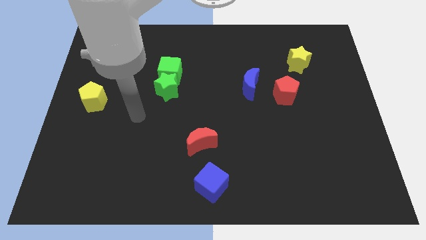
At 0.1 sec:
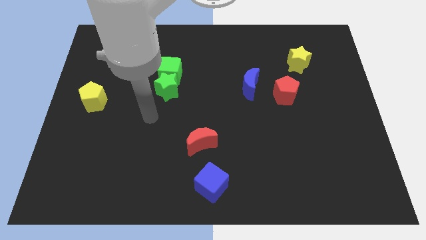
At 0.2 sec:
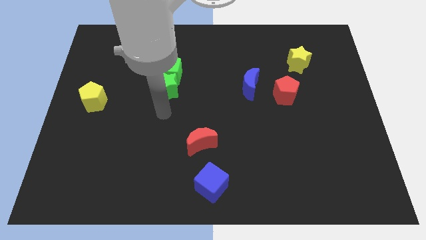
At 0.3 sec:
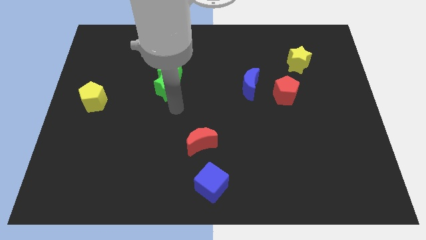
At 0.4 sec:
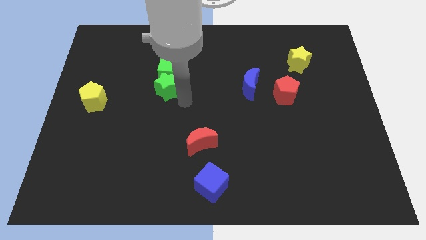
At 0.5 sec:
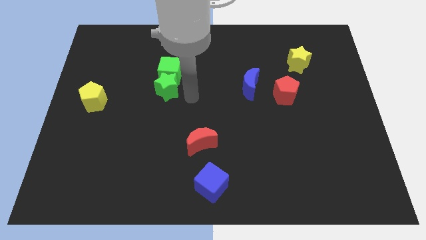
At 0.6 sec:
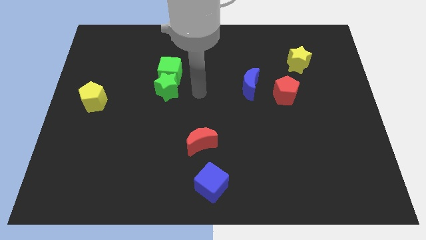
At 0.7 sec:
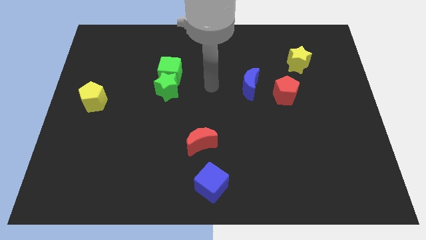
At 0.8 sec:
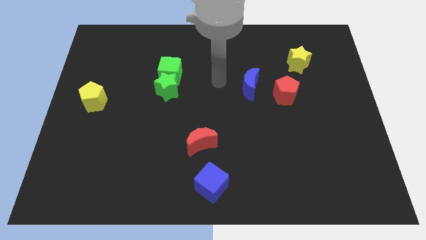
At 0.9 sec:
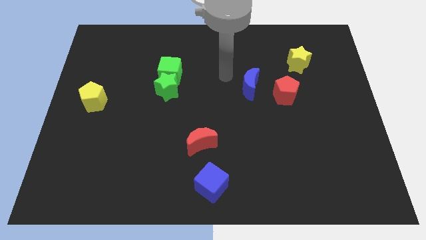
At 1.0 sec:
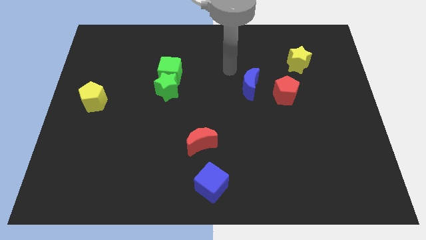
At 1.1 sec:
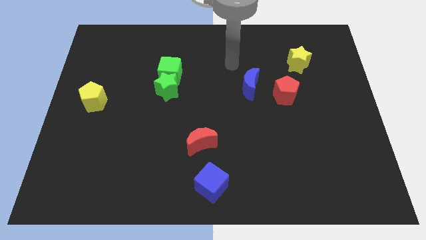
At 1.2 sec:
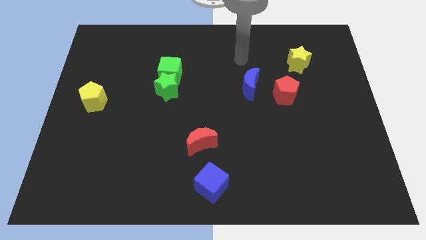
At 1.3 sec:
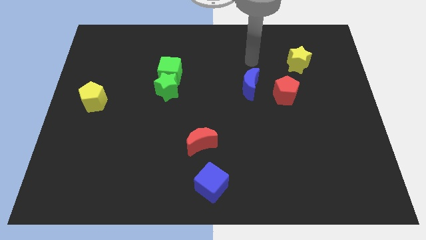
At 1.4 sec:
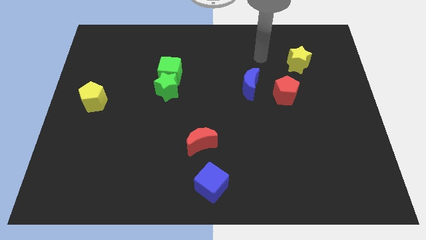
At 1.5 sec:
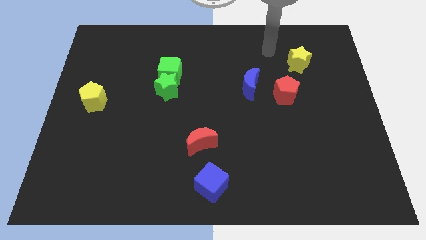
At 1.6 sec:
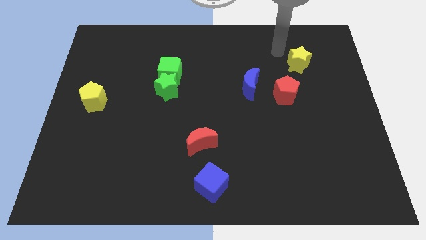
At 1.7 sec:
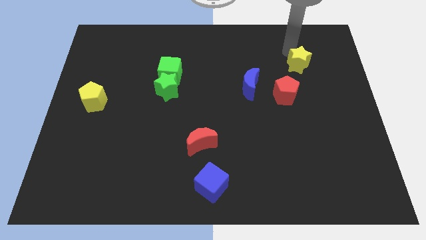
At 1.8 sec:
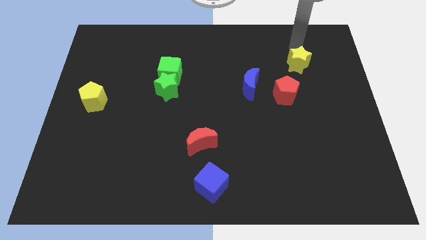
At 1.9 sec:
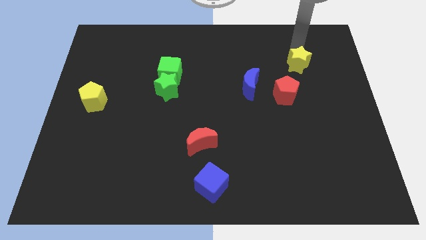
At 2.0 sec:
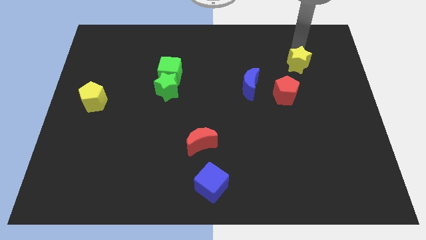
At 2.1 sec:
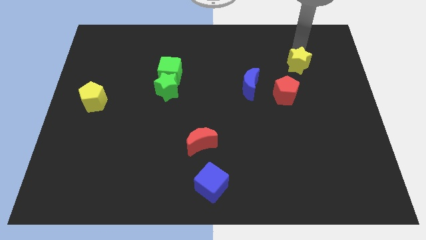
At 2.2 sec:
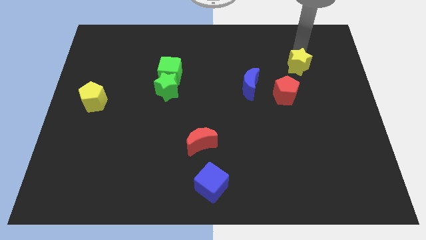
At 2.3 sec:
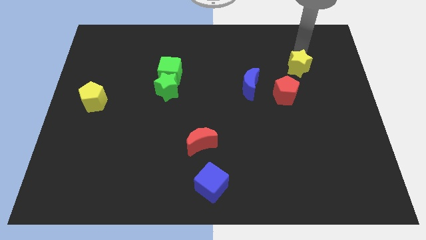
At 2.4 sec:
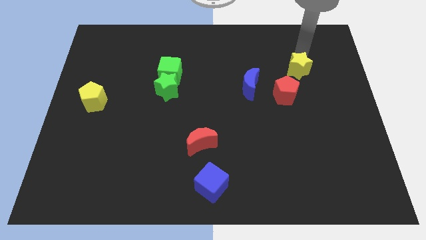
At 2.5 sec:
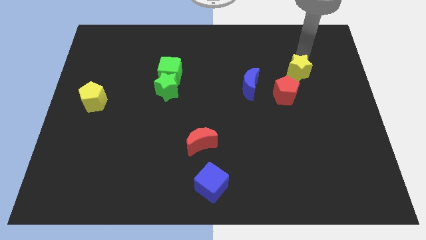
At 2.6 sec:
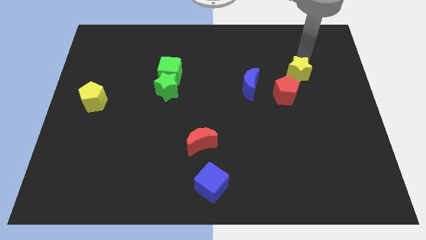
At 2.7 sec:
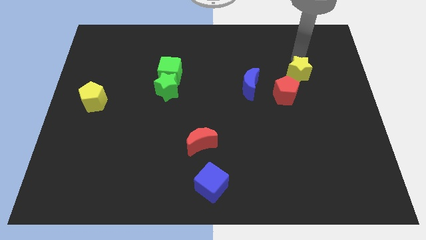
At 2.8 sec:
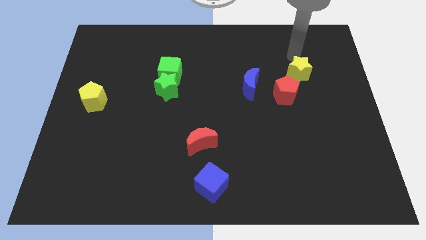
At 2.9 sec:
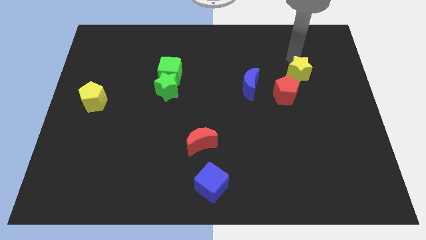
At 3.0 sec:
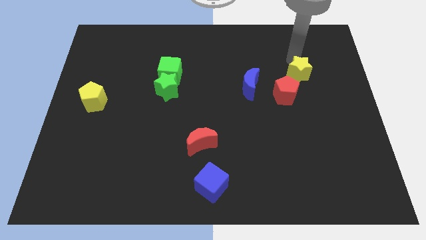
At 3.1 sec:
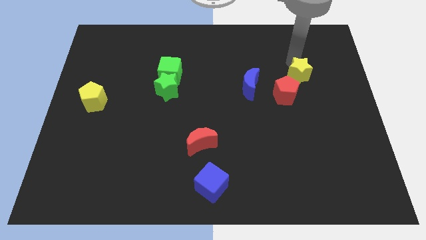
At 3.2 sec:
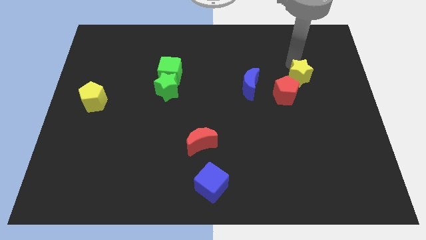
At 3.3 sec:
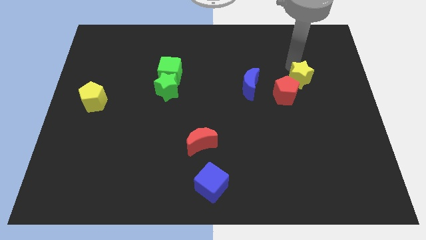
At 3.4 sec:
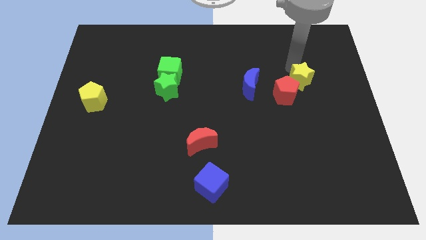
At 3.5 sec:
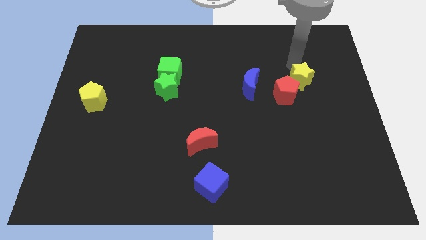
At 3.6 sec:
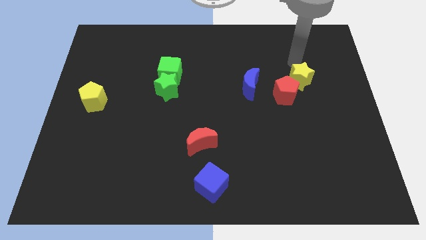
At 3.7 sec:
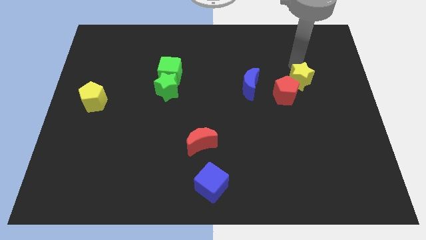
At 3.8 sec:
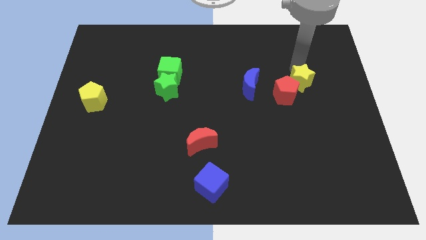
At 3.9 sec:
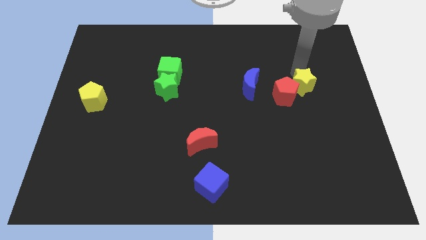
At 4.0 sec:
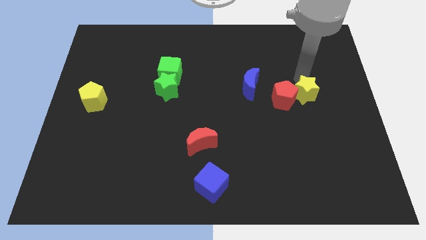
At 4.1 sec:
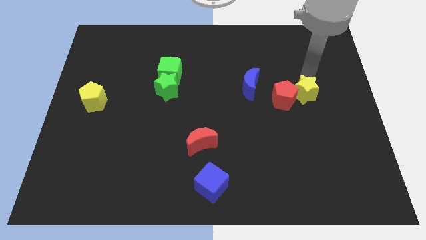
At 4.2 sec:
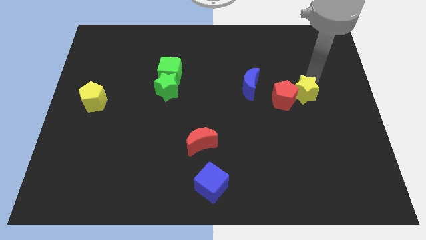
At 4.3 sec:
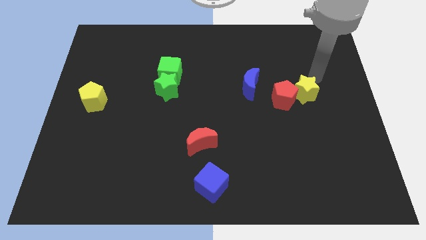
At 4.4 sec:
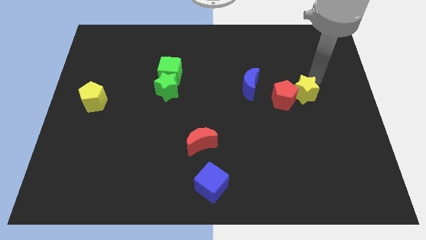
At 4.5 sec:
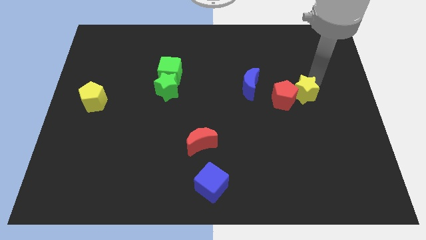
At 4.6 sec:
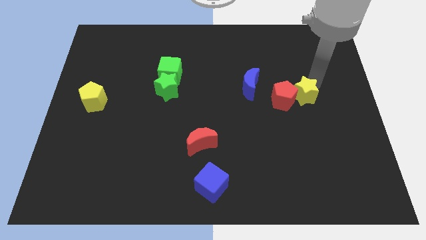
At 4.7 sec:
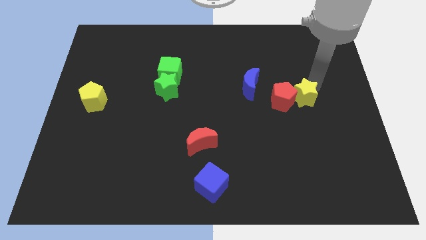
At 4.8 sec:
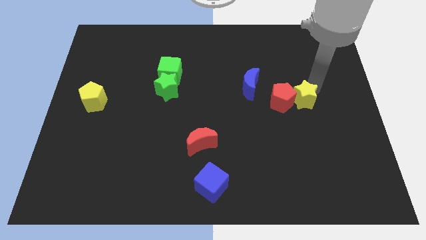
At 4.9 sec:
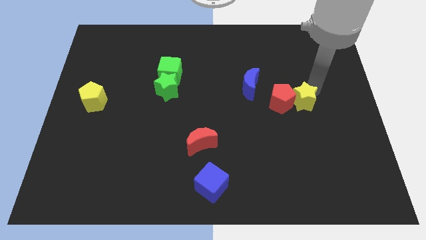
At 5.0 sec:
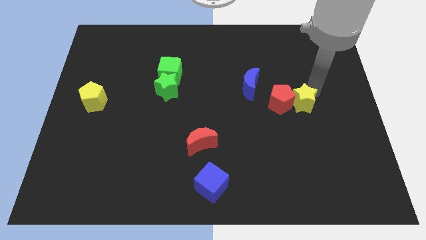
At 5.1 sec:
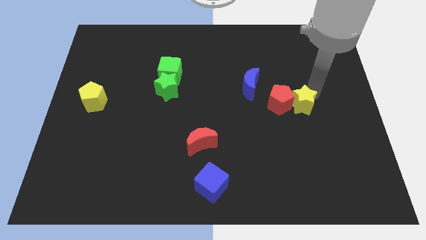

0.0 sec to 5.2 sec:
push the yellow star down and to the left diagonally slightly

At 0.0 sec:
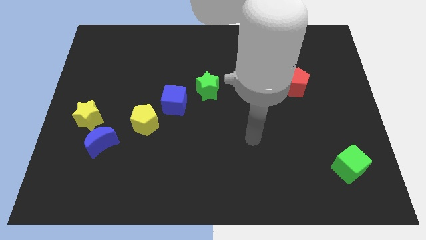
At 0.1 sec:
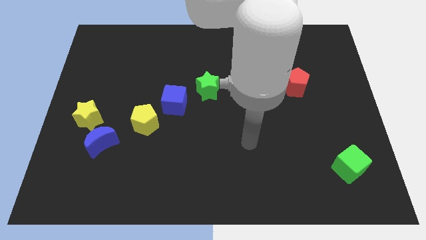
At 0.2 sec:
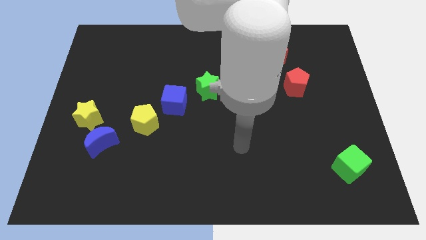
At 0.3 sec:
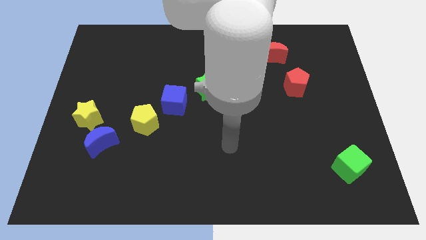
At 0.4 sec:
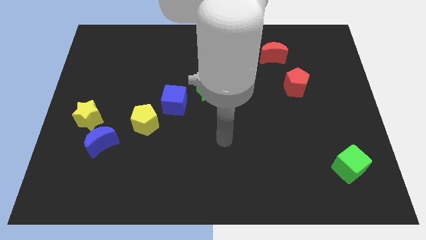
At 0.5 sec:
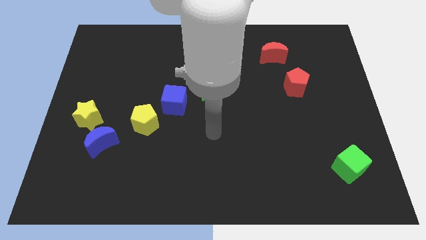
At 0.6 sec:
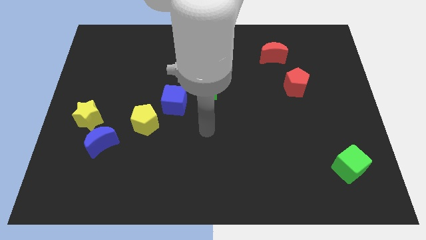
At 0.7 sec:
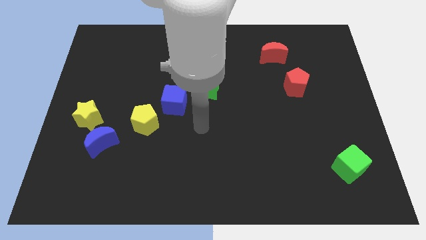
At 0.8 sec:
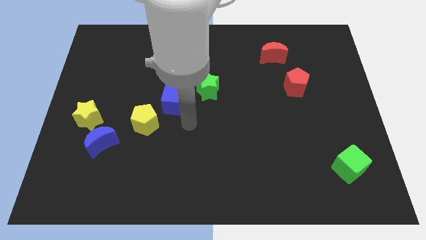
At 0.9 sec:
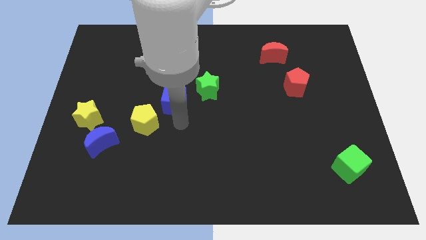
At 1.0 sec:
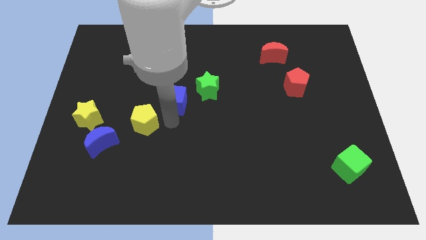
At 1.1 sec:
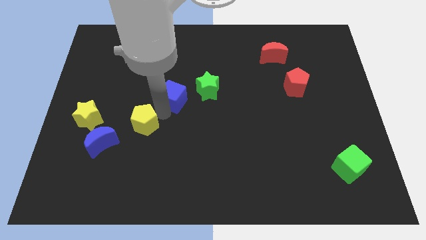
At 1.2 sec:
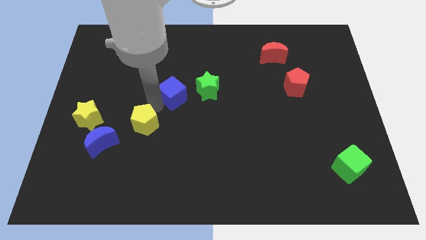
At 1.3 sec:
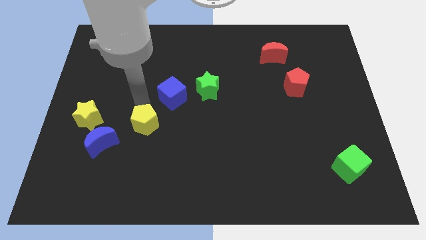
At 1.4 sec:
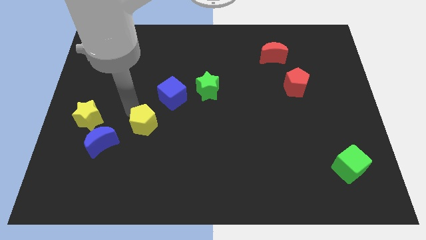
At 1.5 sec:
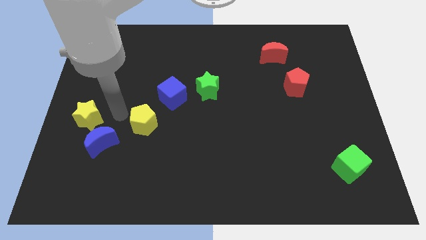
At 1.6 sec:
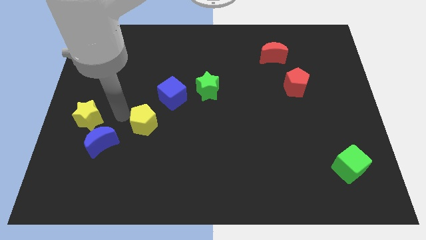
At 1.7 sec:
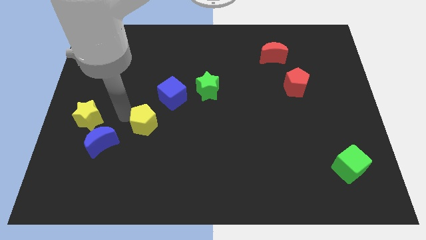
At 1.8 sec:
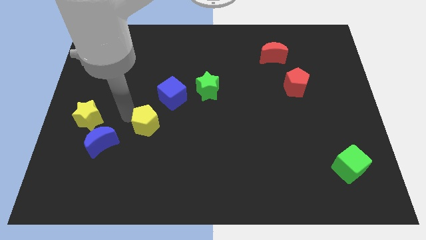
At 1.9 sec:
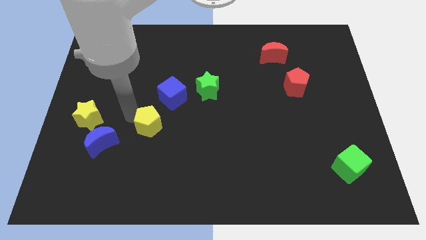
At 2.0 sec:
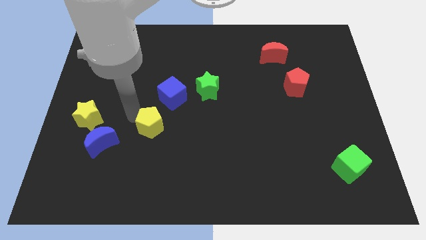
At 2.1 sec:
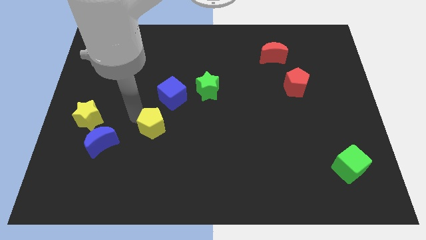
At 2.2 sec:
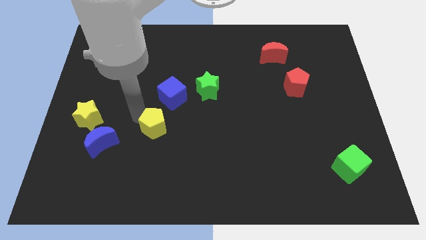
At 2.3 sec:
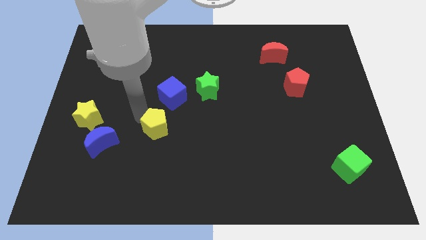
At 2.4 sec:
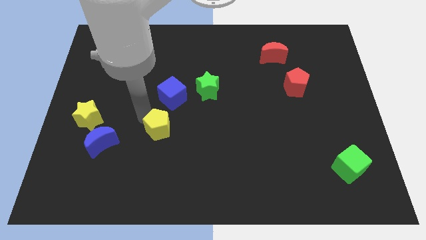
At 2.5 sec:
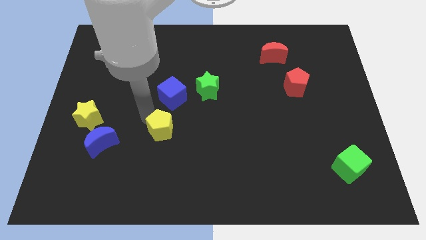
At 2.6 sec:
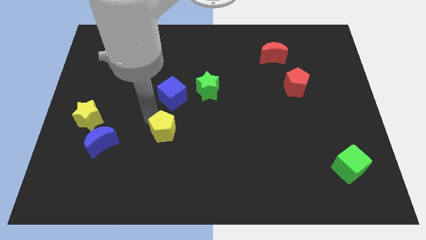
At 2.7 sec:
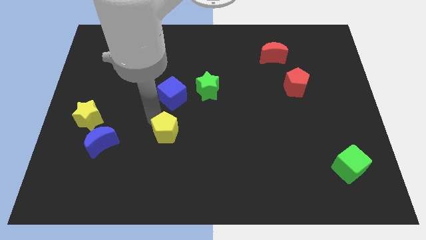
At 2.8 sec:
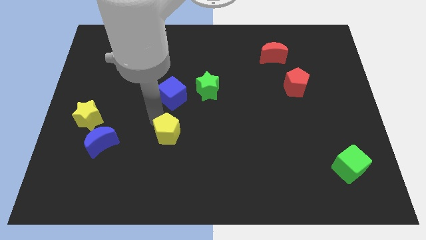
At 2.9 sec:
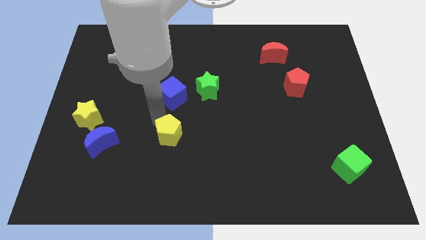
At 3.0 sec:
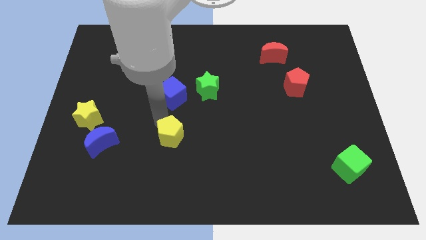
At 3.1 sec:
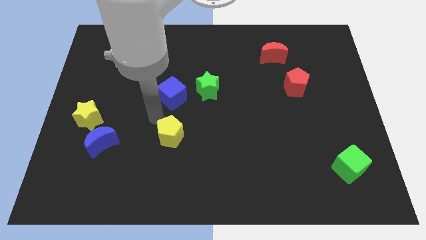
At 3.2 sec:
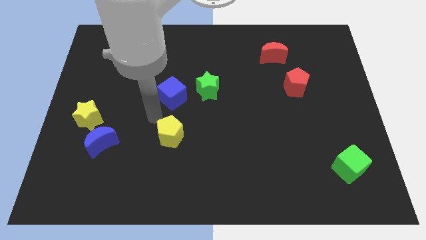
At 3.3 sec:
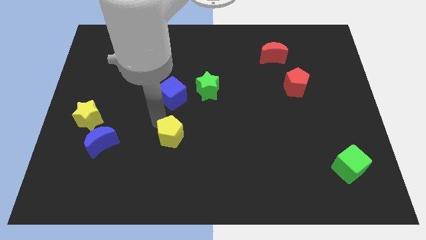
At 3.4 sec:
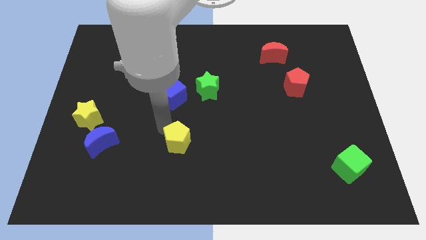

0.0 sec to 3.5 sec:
slightly push the yellow pentagon diagonally down and right
